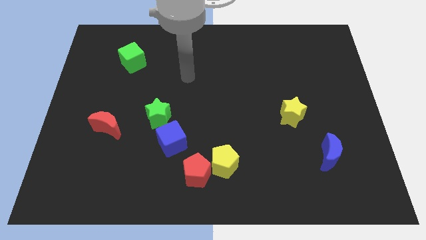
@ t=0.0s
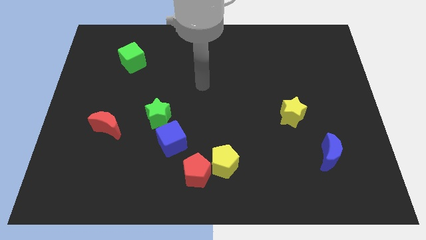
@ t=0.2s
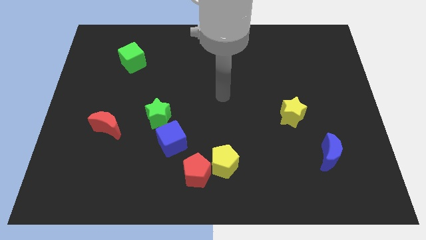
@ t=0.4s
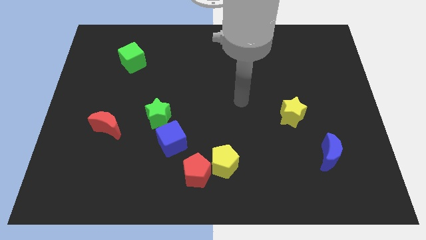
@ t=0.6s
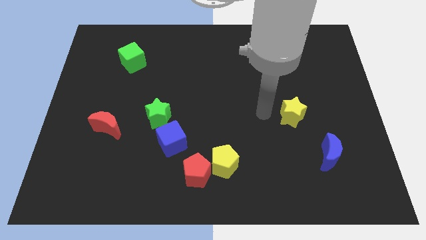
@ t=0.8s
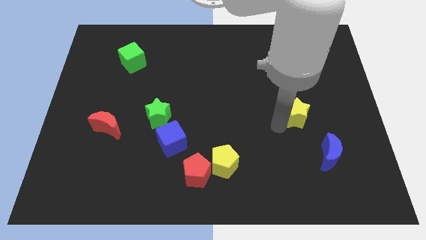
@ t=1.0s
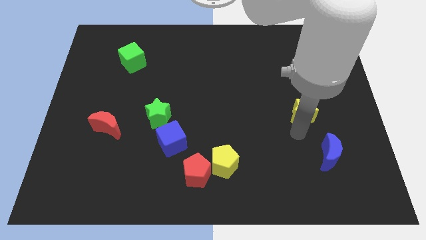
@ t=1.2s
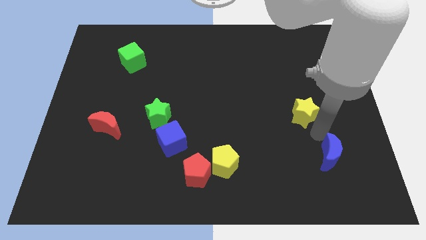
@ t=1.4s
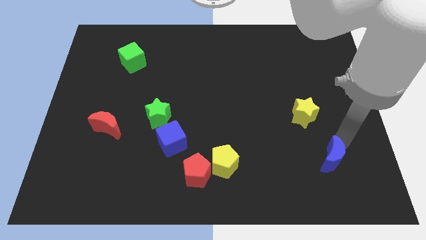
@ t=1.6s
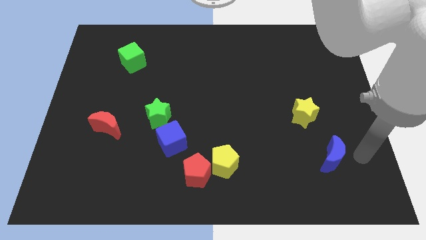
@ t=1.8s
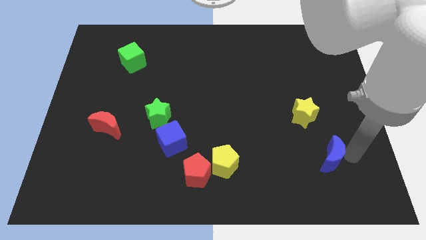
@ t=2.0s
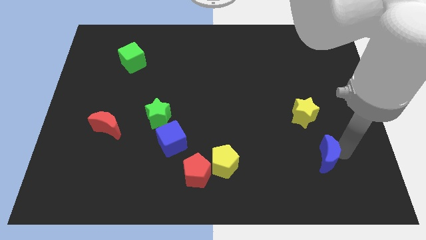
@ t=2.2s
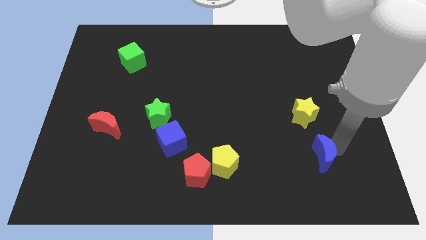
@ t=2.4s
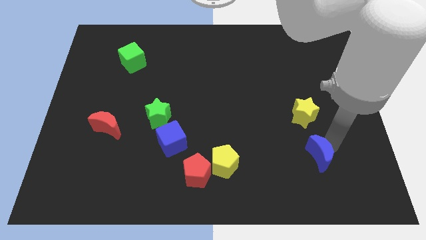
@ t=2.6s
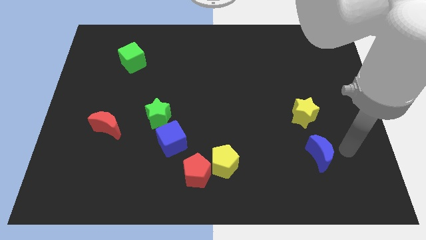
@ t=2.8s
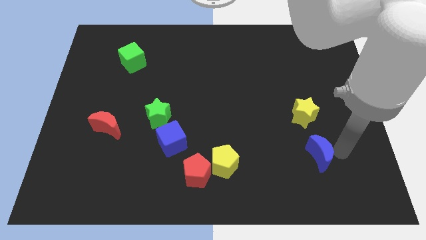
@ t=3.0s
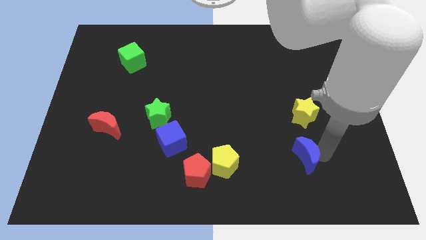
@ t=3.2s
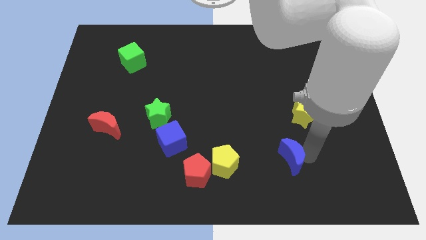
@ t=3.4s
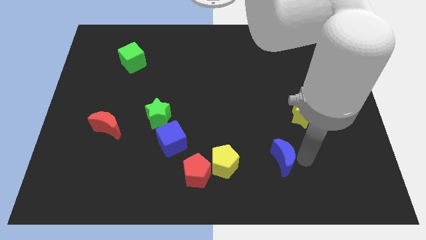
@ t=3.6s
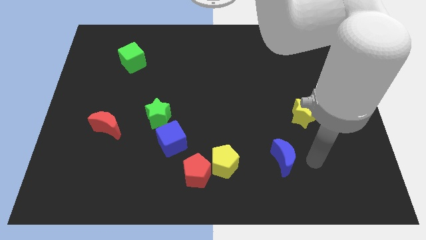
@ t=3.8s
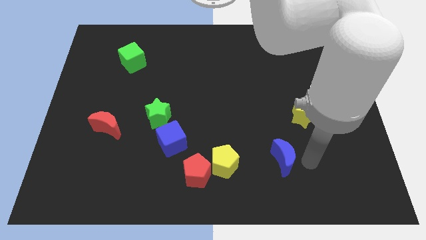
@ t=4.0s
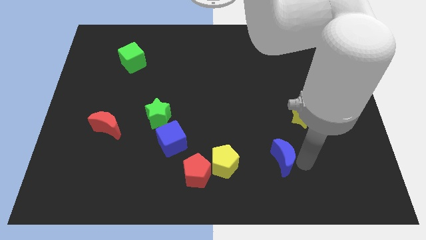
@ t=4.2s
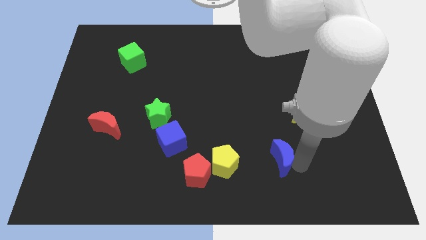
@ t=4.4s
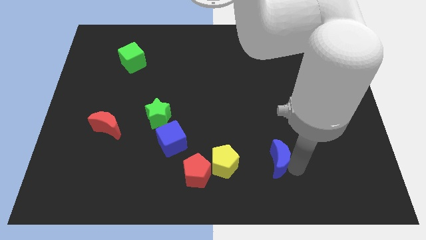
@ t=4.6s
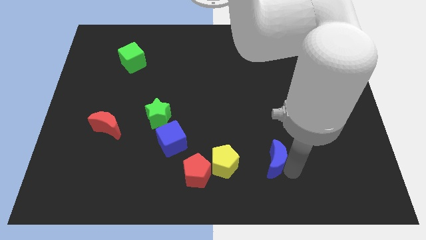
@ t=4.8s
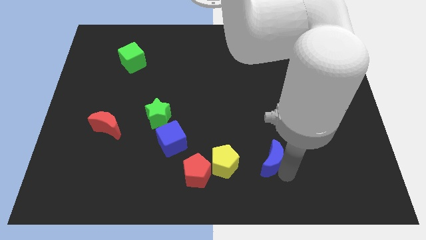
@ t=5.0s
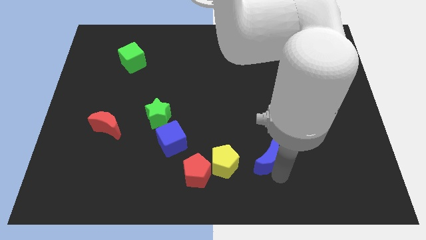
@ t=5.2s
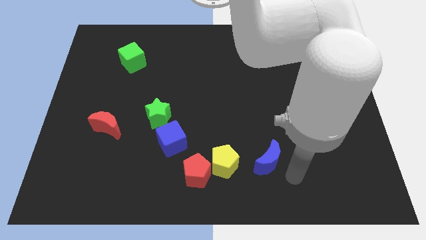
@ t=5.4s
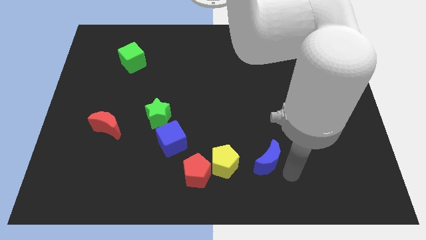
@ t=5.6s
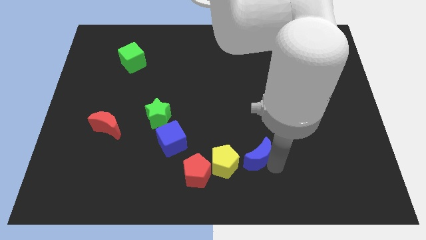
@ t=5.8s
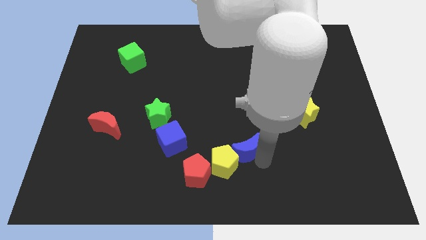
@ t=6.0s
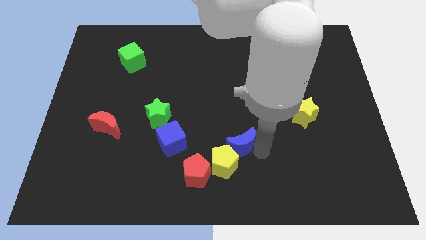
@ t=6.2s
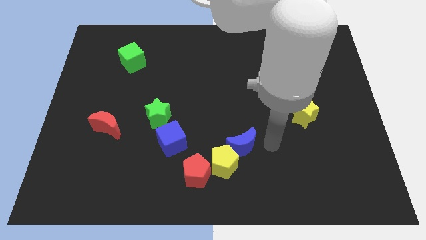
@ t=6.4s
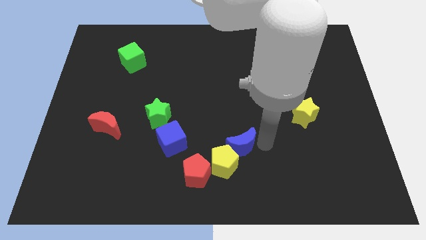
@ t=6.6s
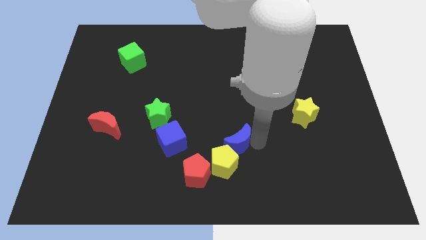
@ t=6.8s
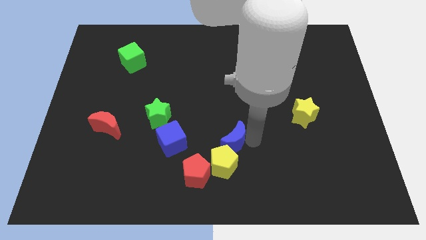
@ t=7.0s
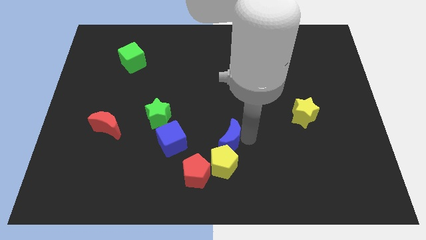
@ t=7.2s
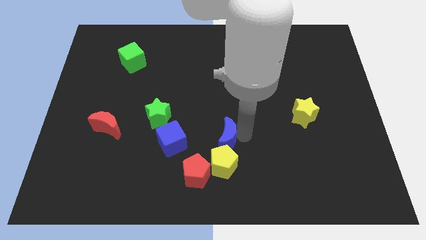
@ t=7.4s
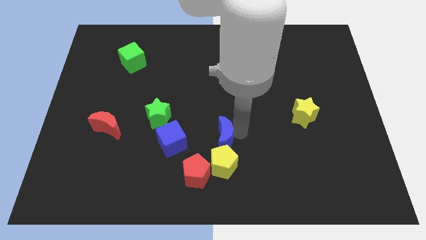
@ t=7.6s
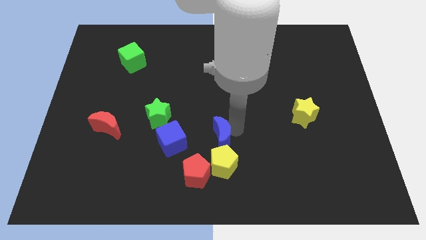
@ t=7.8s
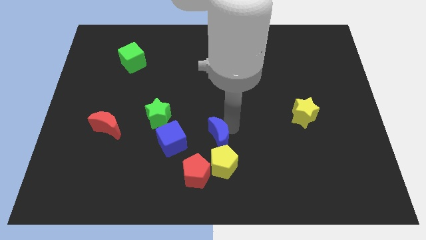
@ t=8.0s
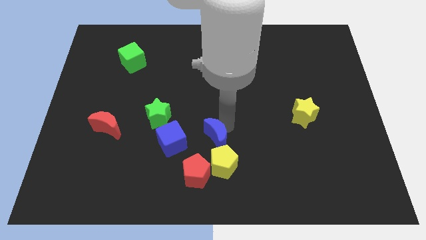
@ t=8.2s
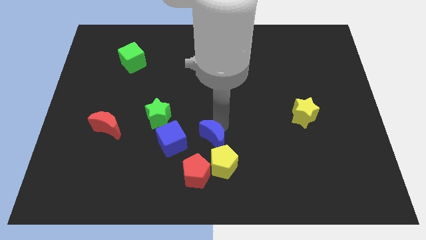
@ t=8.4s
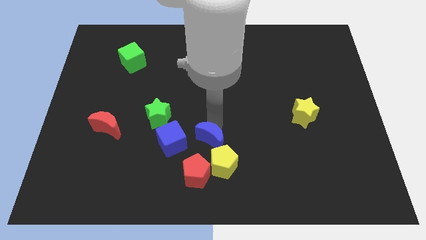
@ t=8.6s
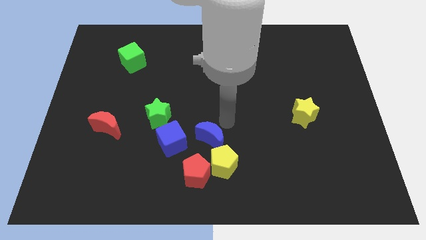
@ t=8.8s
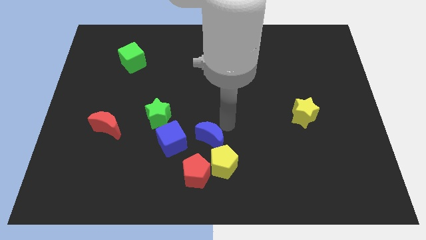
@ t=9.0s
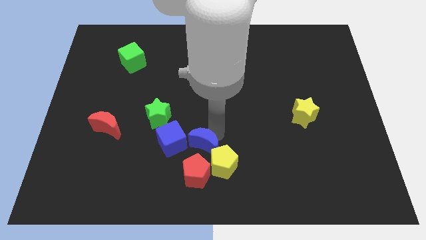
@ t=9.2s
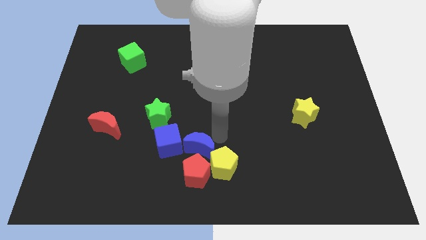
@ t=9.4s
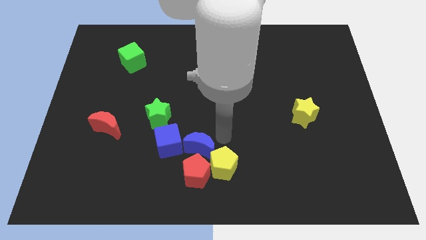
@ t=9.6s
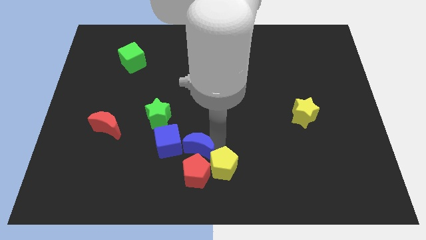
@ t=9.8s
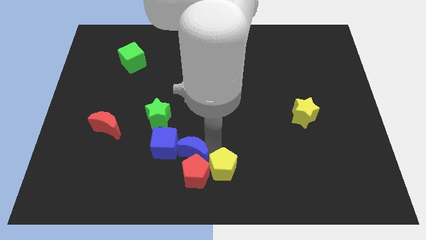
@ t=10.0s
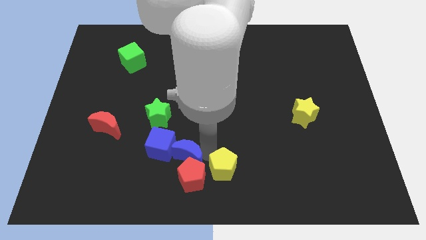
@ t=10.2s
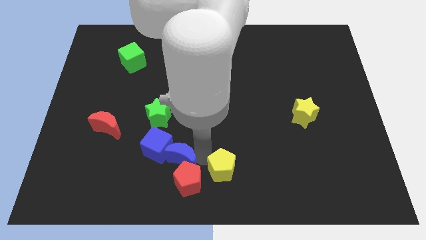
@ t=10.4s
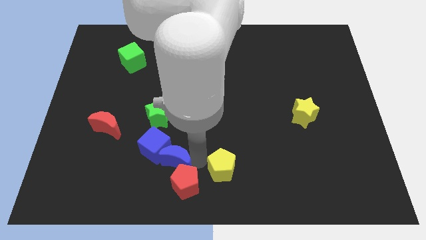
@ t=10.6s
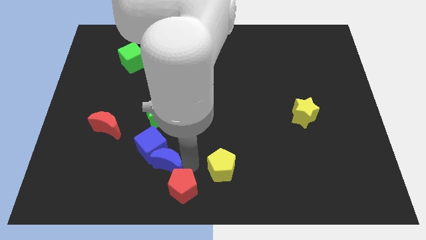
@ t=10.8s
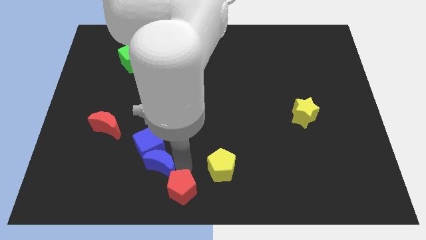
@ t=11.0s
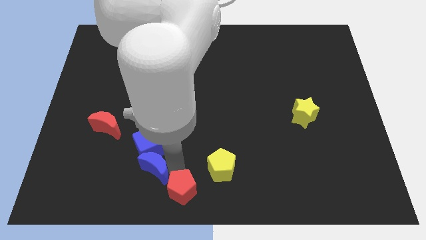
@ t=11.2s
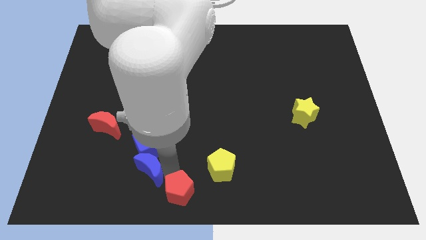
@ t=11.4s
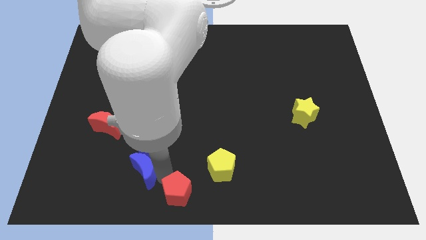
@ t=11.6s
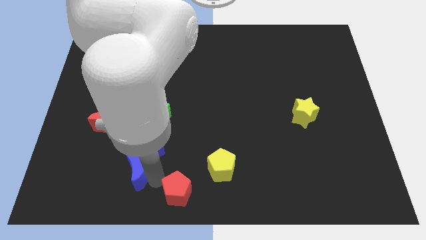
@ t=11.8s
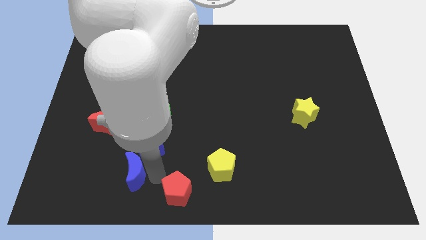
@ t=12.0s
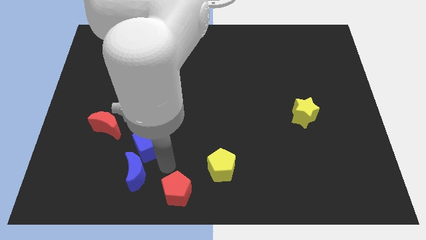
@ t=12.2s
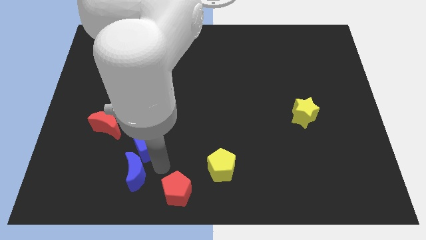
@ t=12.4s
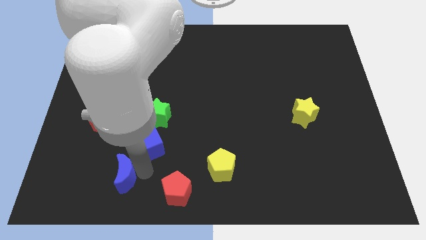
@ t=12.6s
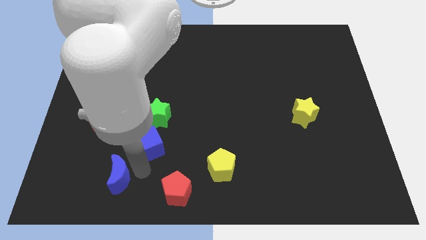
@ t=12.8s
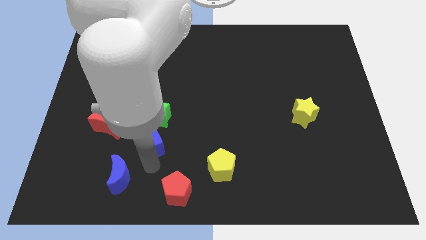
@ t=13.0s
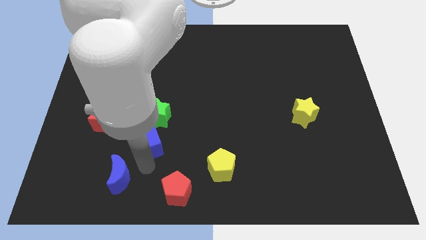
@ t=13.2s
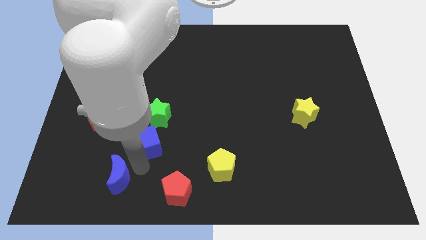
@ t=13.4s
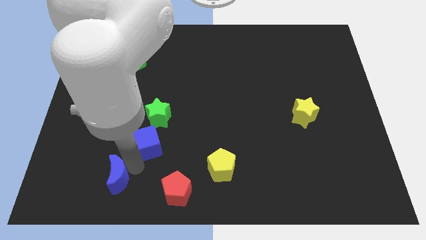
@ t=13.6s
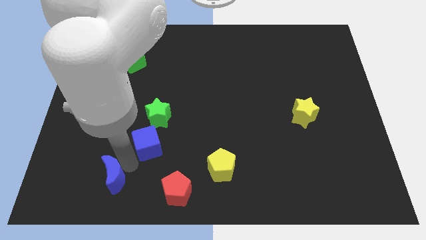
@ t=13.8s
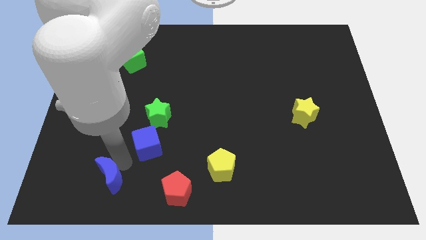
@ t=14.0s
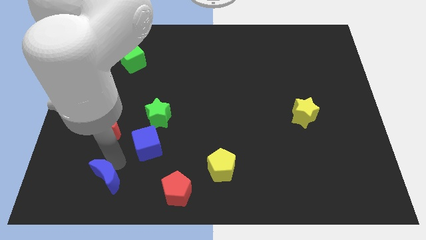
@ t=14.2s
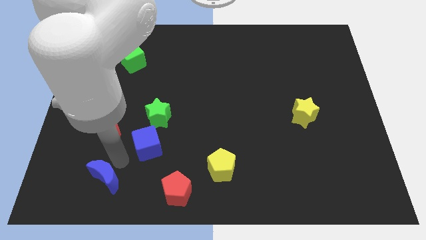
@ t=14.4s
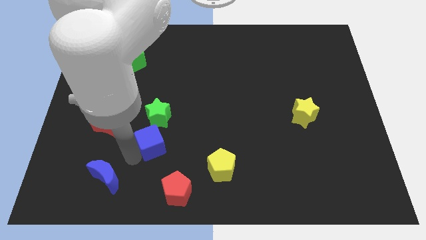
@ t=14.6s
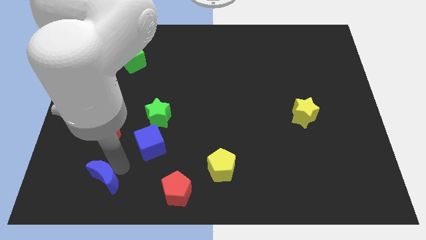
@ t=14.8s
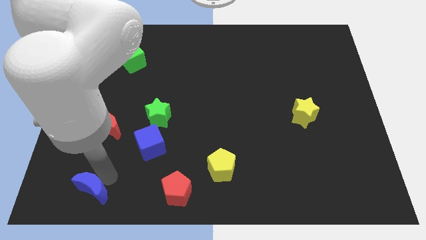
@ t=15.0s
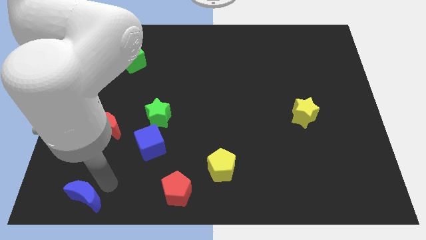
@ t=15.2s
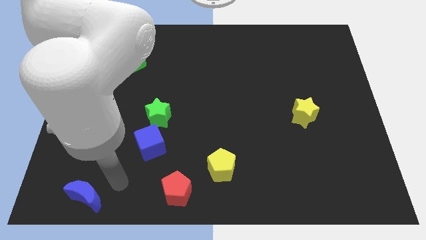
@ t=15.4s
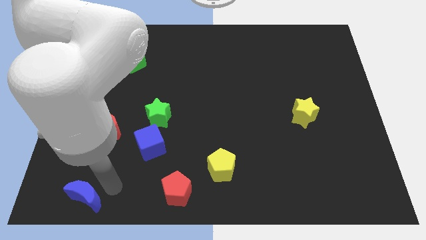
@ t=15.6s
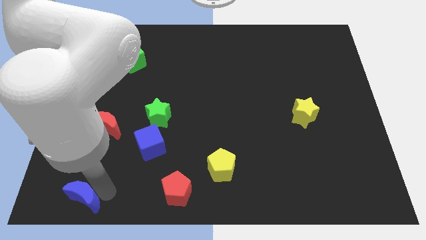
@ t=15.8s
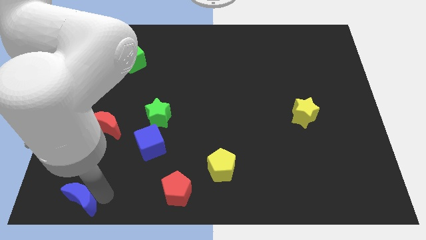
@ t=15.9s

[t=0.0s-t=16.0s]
slide the blue moon to the bottom left corner
